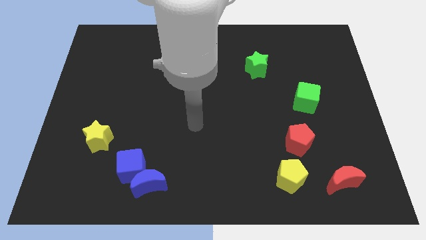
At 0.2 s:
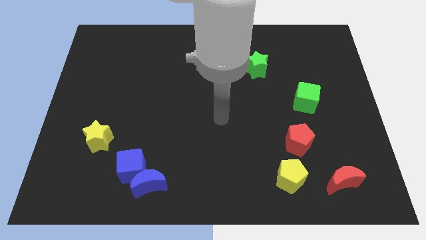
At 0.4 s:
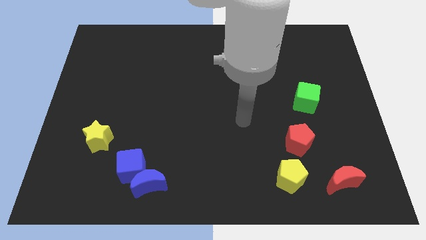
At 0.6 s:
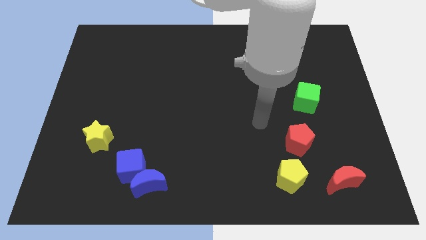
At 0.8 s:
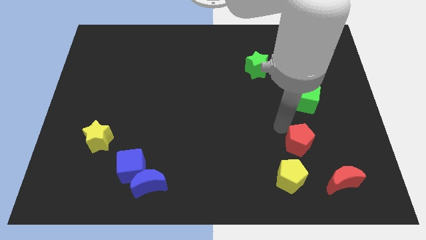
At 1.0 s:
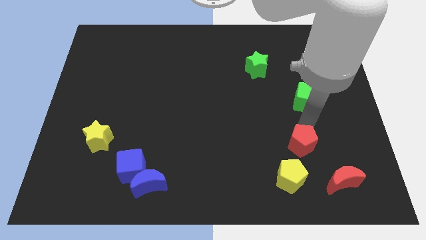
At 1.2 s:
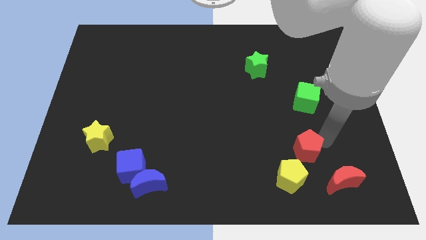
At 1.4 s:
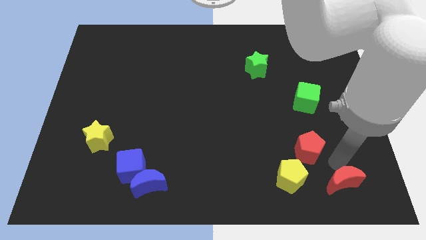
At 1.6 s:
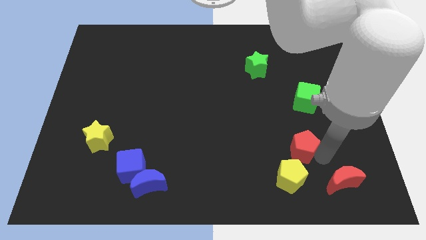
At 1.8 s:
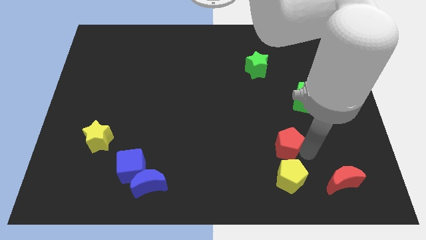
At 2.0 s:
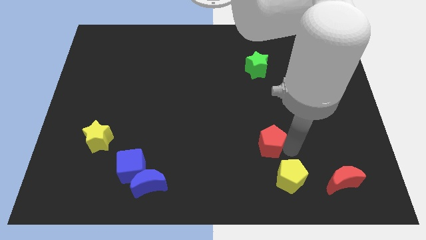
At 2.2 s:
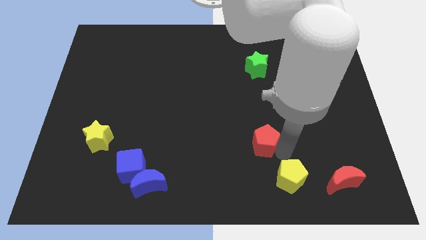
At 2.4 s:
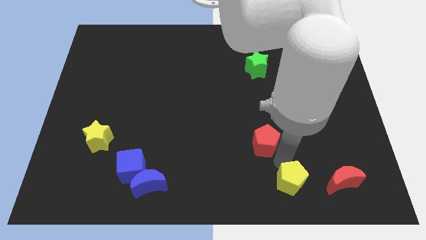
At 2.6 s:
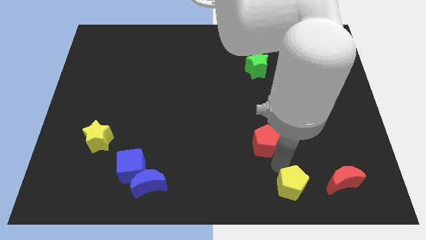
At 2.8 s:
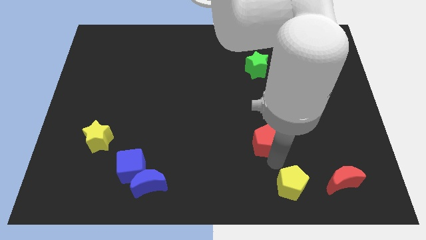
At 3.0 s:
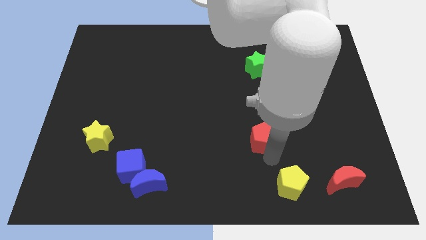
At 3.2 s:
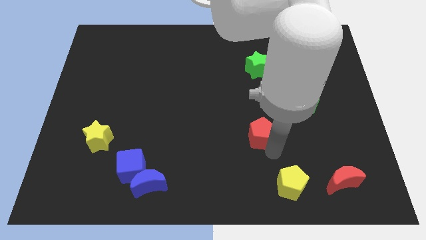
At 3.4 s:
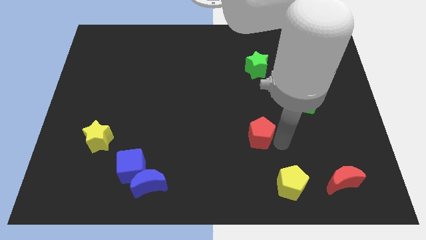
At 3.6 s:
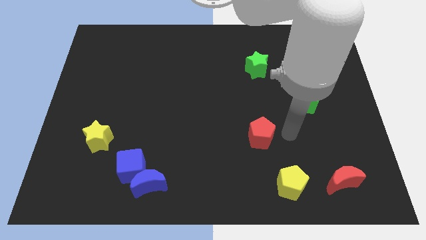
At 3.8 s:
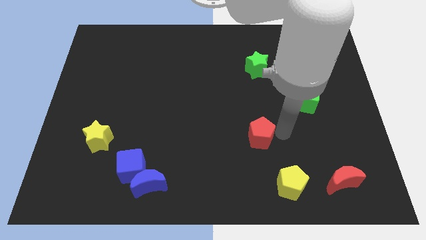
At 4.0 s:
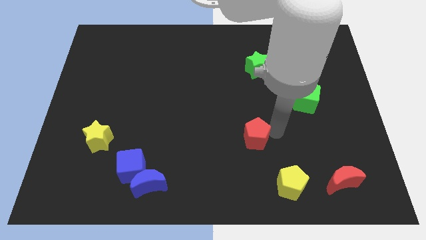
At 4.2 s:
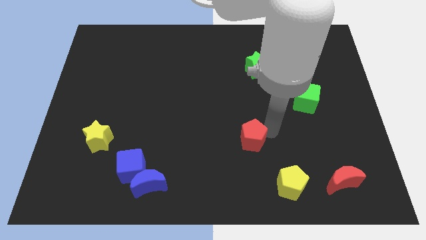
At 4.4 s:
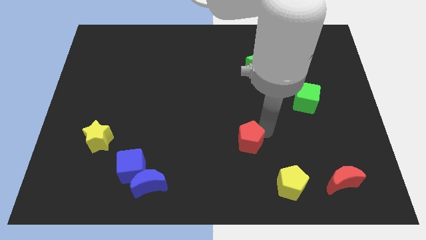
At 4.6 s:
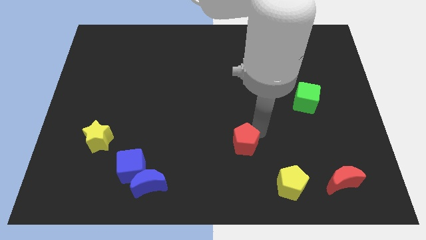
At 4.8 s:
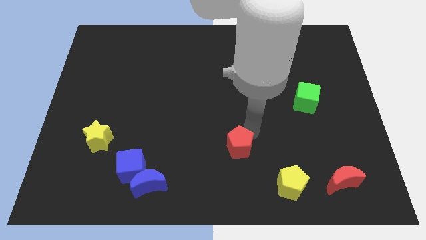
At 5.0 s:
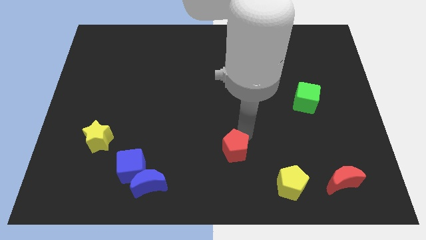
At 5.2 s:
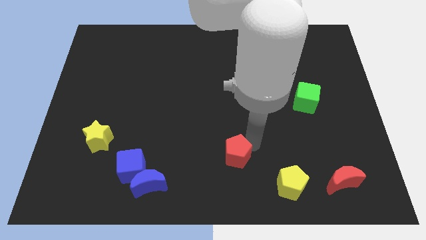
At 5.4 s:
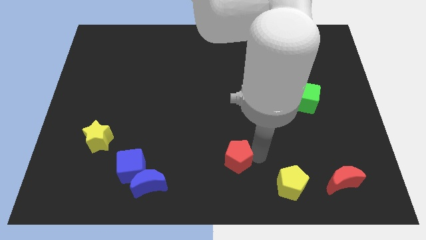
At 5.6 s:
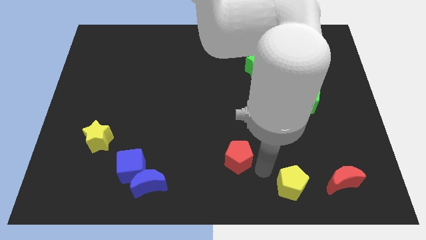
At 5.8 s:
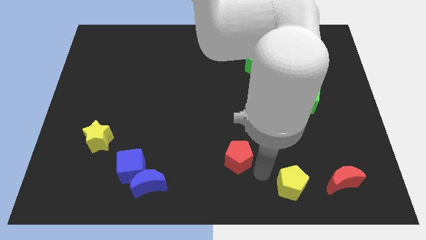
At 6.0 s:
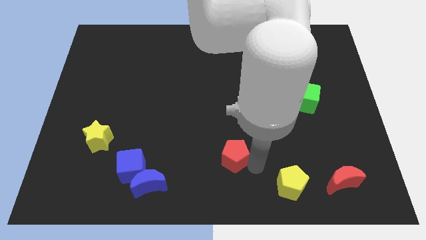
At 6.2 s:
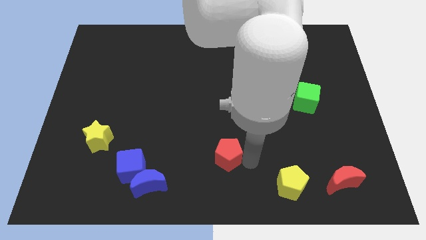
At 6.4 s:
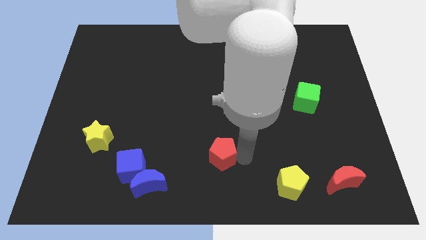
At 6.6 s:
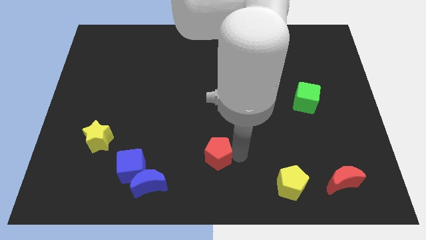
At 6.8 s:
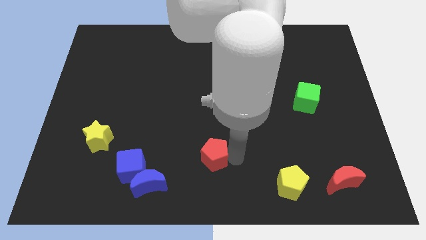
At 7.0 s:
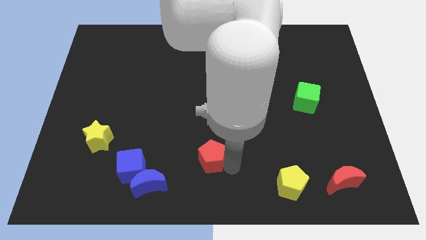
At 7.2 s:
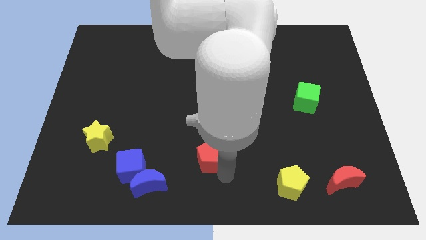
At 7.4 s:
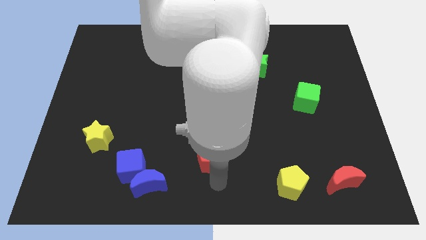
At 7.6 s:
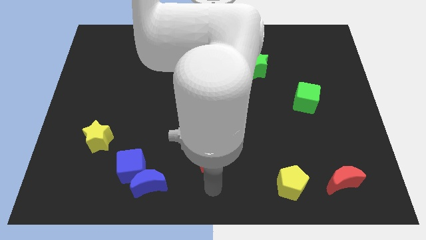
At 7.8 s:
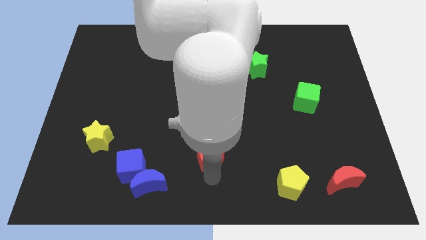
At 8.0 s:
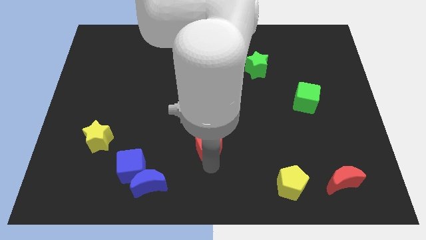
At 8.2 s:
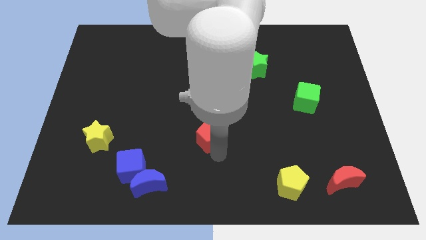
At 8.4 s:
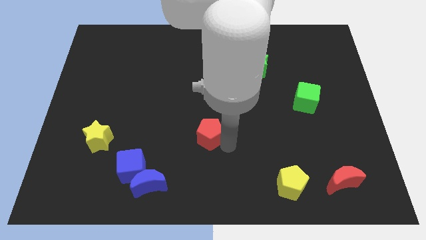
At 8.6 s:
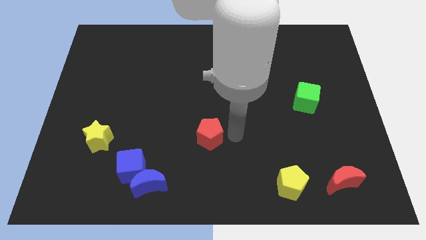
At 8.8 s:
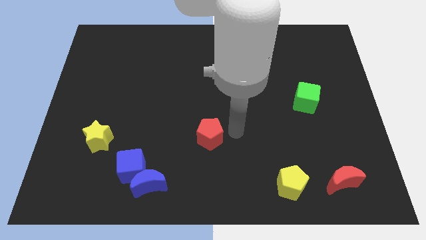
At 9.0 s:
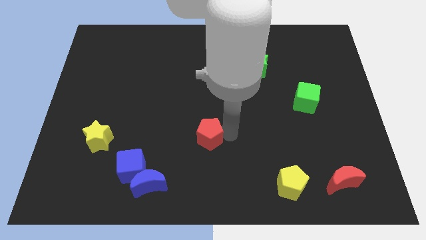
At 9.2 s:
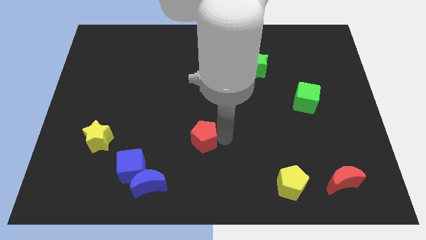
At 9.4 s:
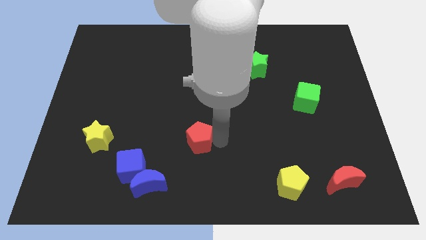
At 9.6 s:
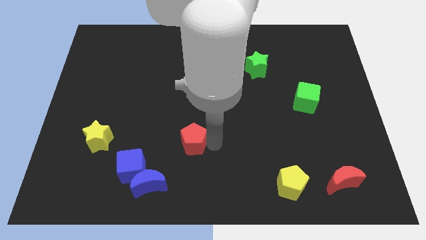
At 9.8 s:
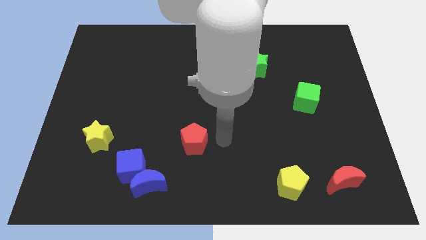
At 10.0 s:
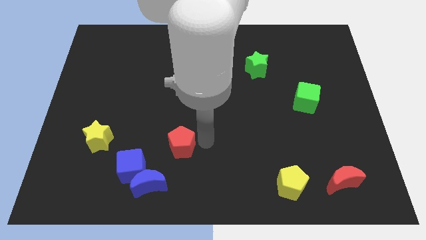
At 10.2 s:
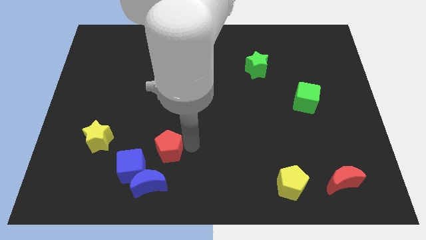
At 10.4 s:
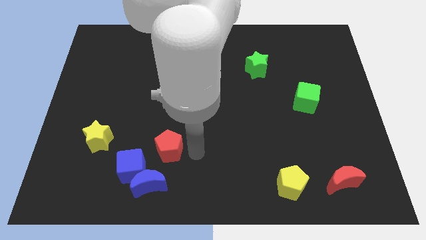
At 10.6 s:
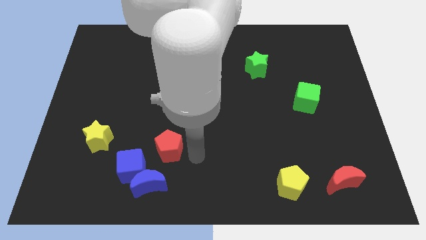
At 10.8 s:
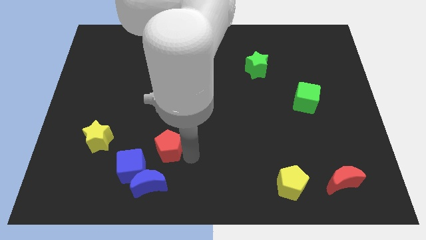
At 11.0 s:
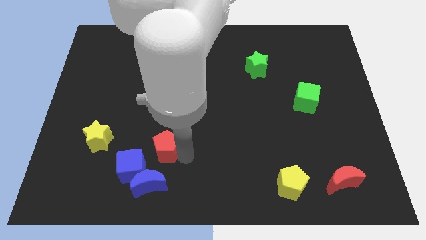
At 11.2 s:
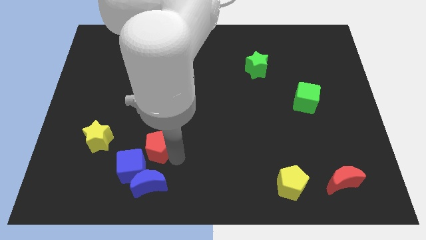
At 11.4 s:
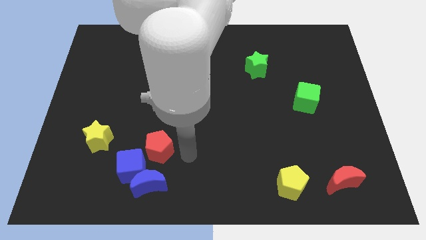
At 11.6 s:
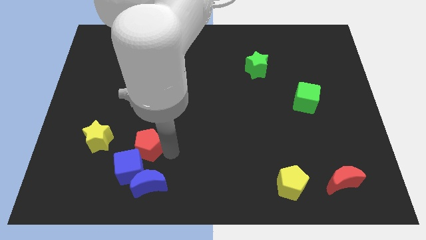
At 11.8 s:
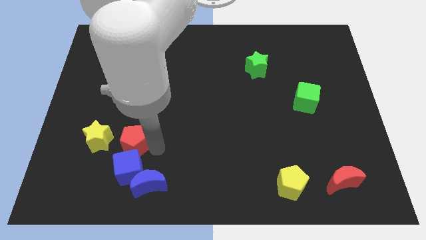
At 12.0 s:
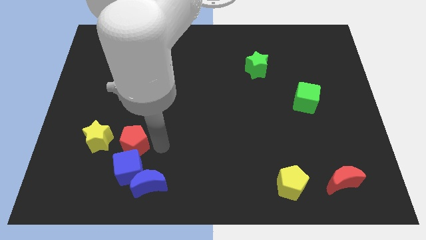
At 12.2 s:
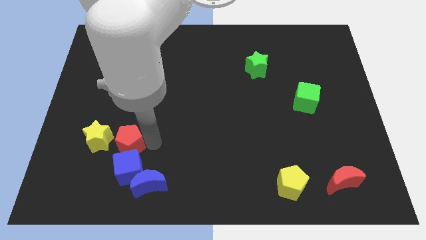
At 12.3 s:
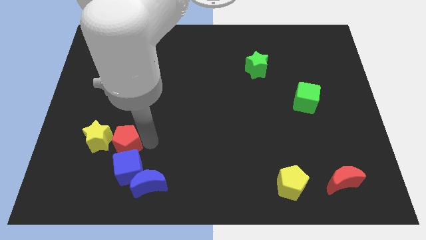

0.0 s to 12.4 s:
move the red pentagon towards the yellow star

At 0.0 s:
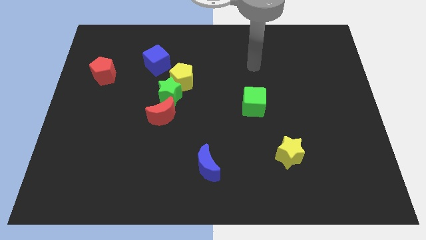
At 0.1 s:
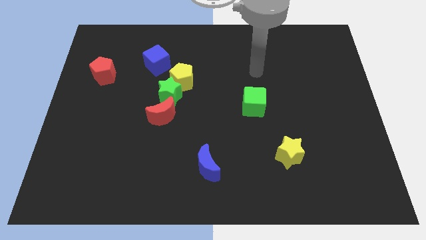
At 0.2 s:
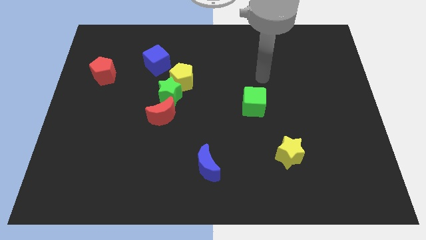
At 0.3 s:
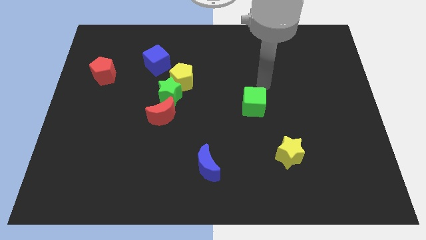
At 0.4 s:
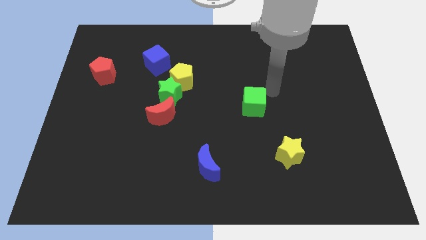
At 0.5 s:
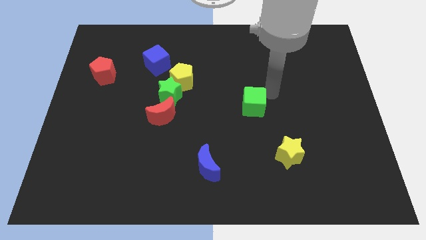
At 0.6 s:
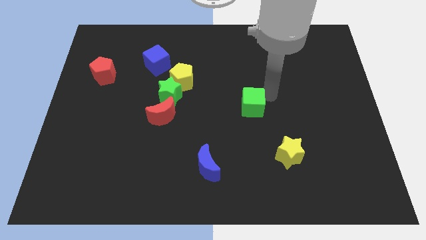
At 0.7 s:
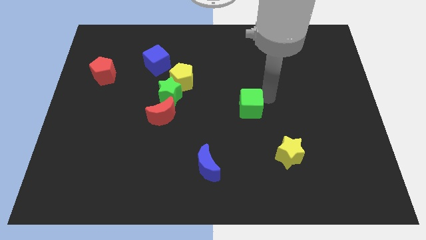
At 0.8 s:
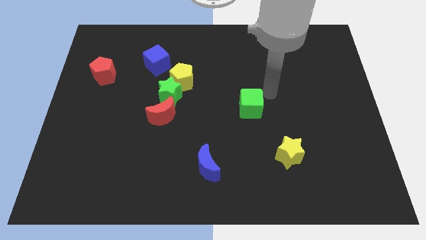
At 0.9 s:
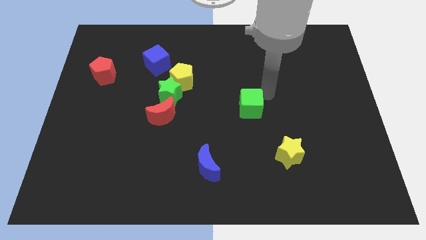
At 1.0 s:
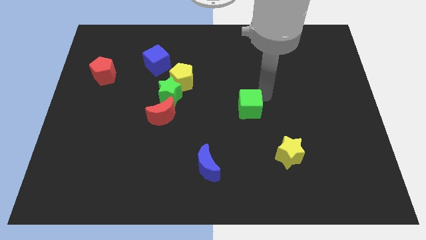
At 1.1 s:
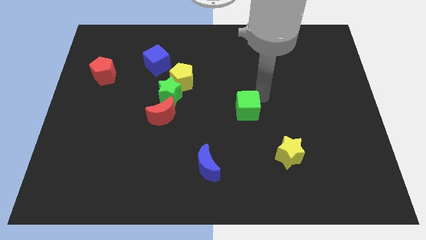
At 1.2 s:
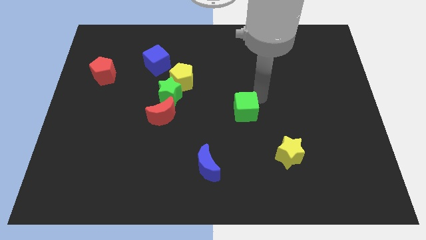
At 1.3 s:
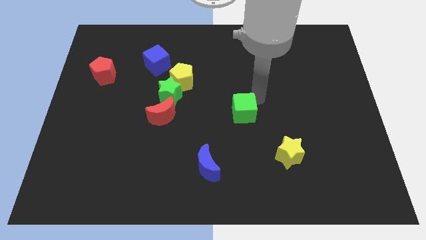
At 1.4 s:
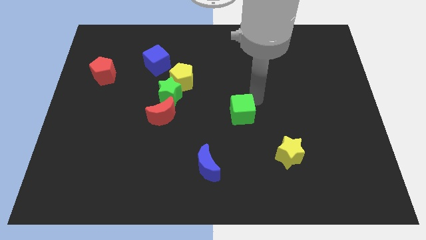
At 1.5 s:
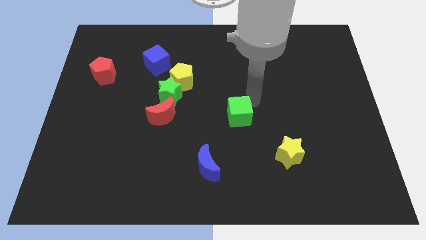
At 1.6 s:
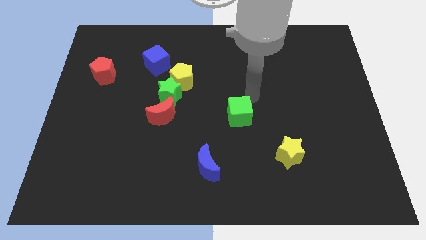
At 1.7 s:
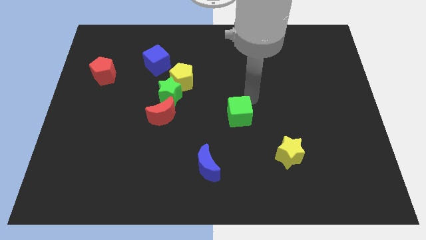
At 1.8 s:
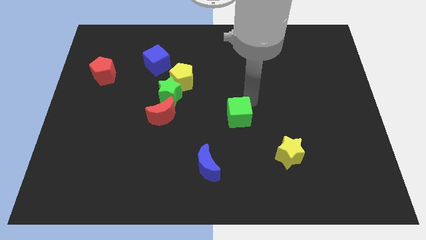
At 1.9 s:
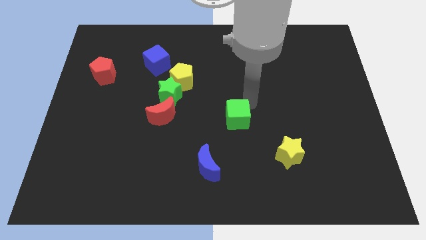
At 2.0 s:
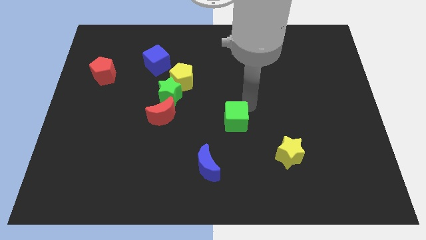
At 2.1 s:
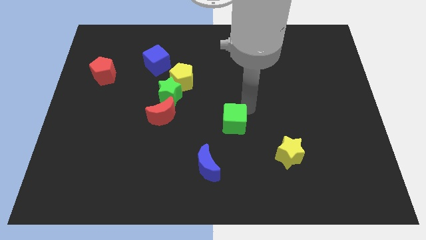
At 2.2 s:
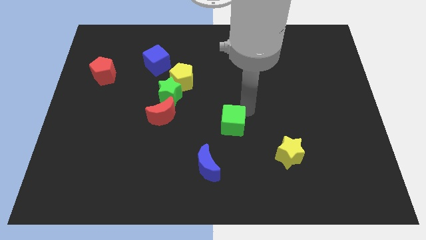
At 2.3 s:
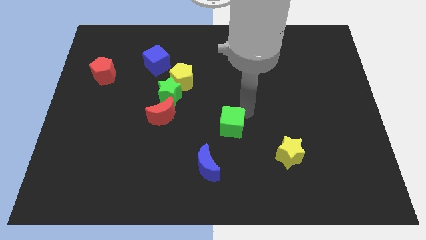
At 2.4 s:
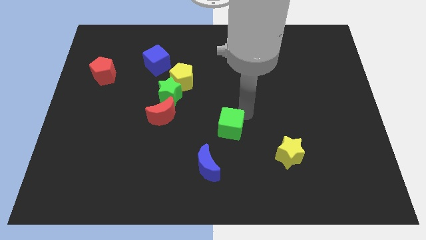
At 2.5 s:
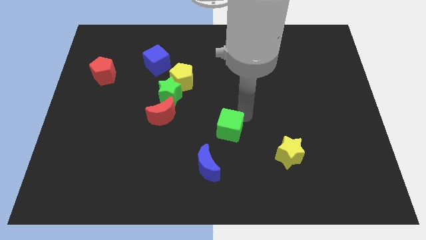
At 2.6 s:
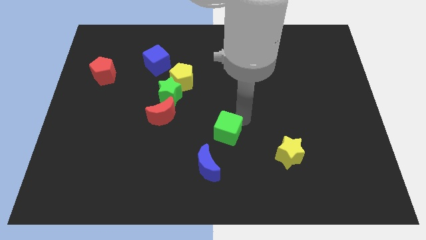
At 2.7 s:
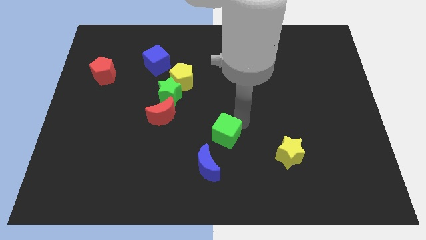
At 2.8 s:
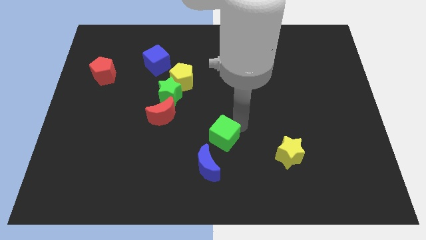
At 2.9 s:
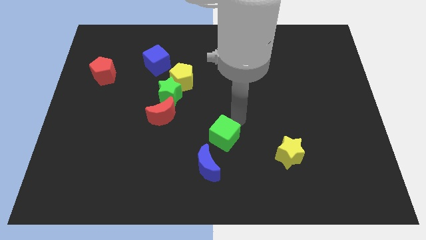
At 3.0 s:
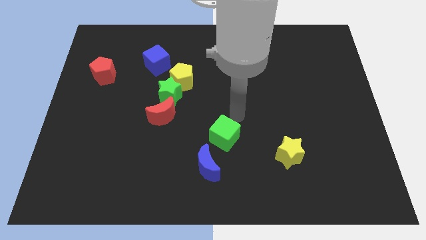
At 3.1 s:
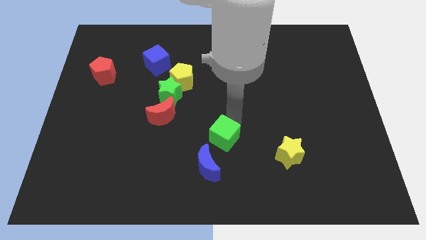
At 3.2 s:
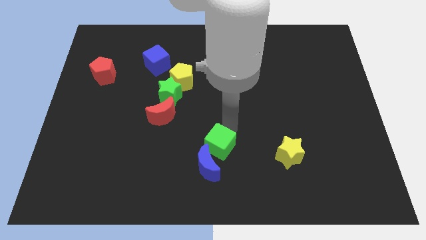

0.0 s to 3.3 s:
put the green cube close to the blue moon
